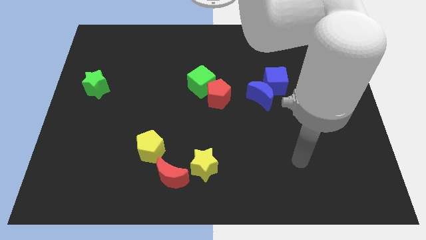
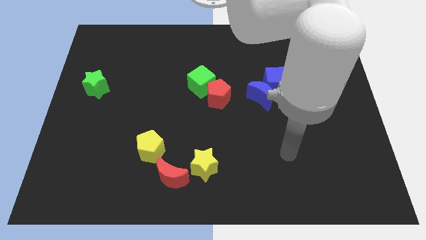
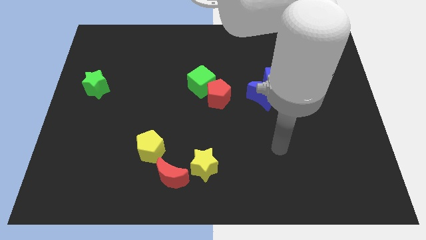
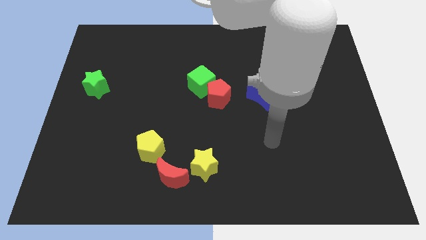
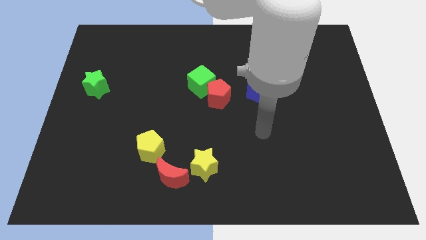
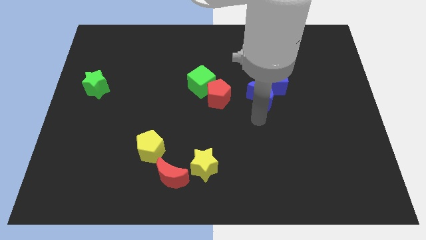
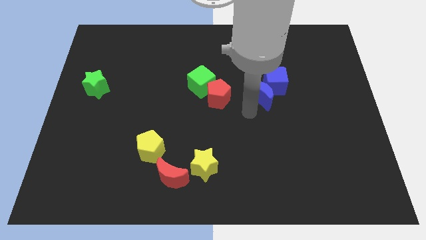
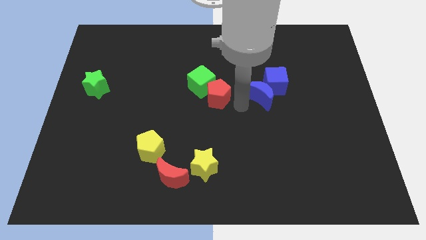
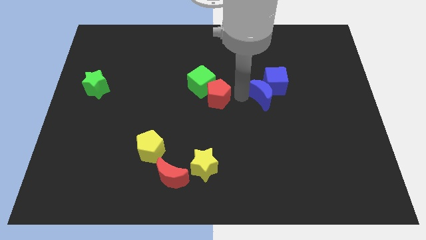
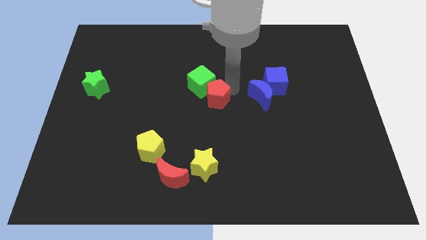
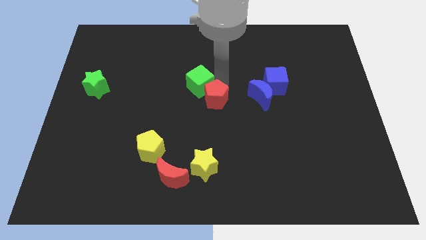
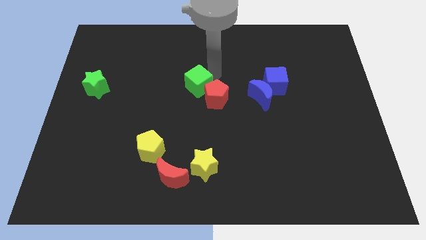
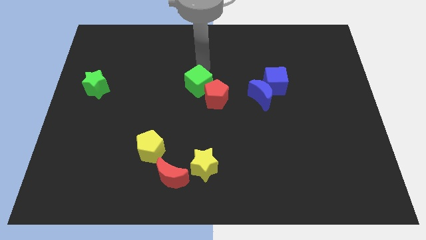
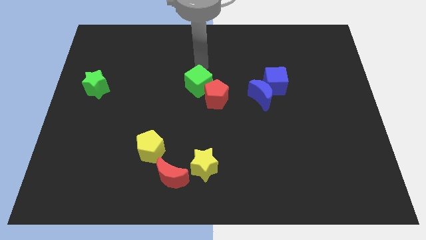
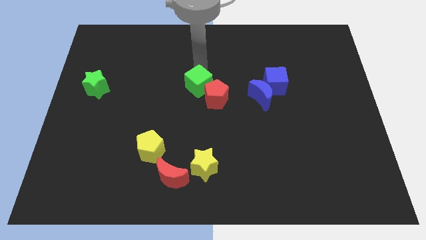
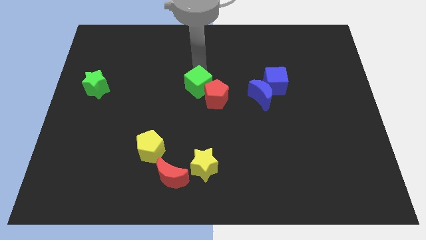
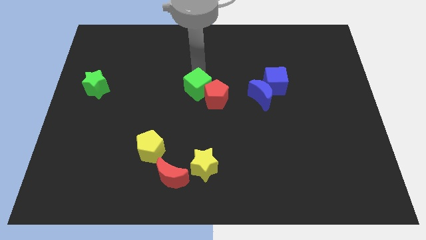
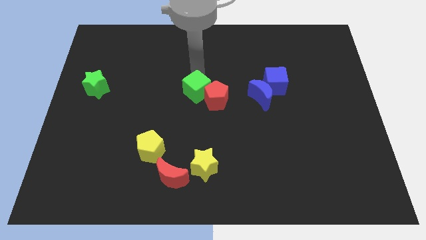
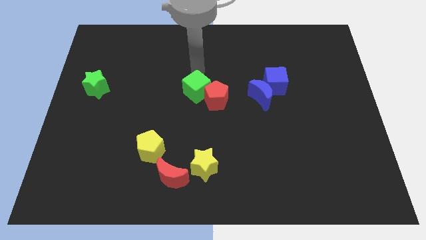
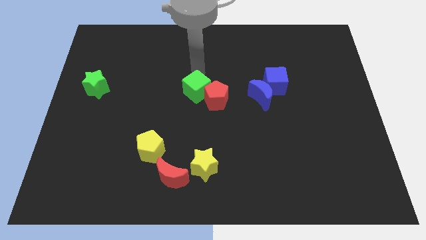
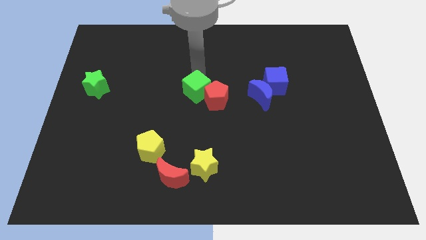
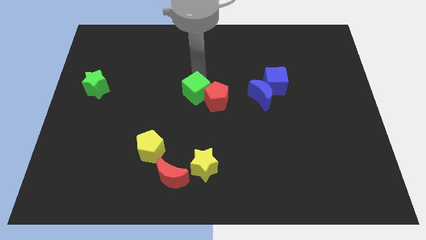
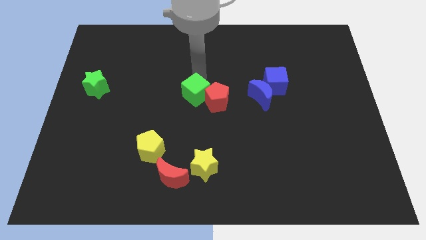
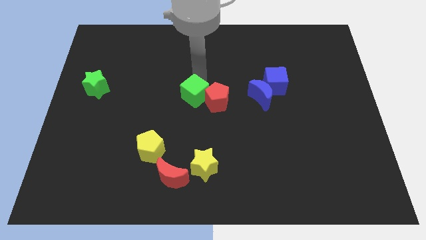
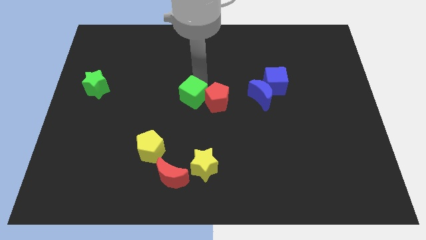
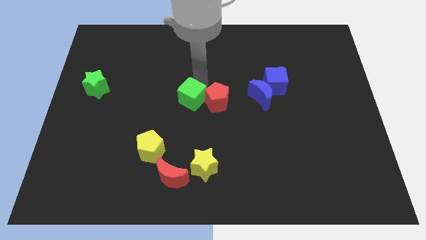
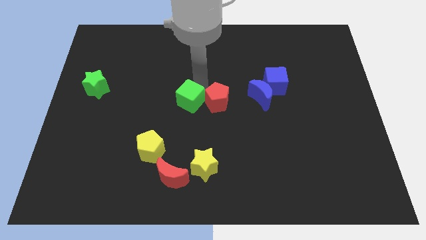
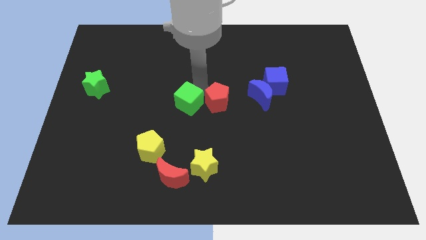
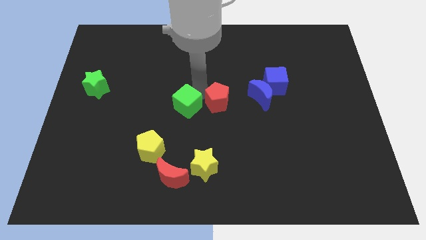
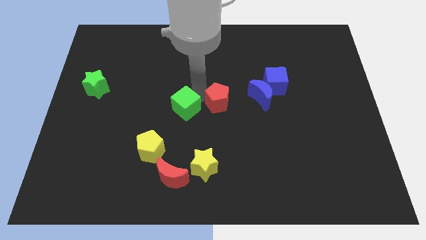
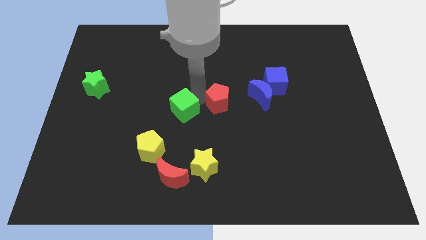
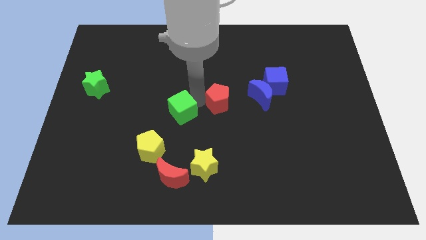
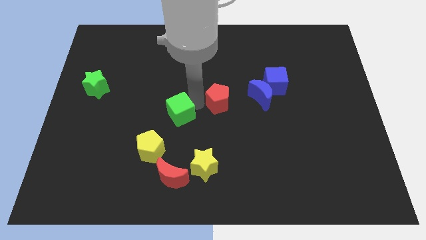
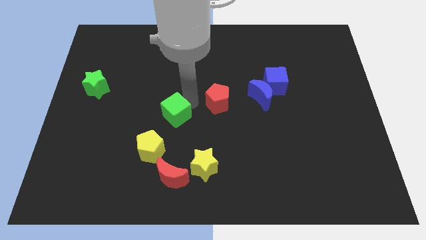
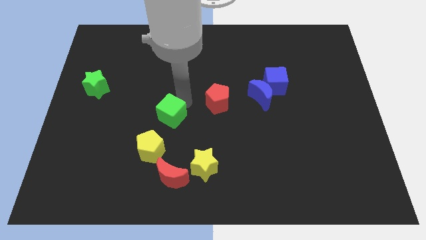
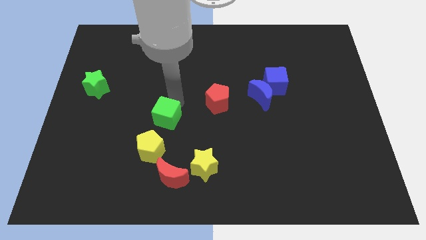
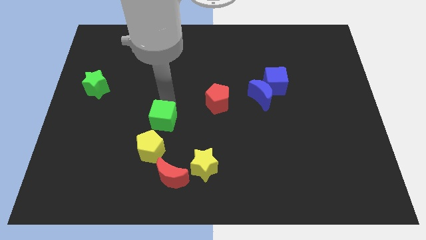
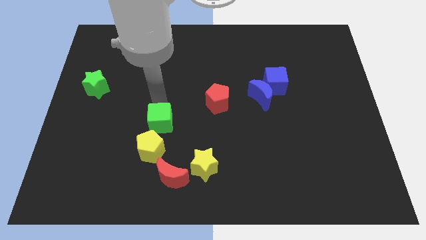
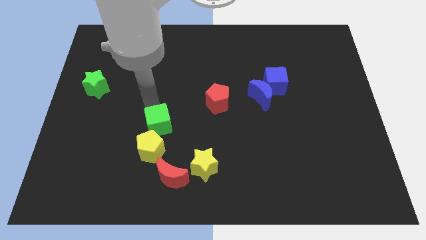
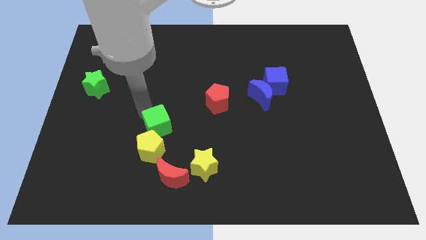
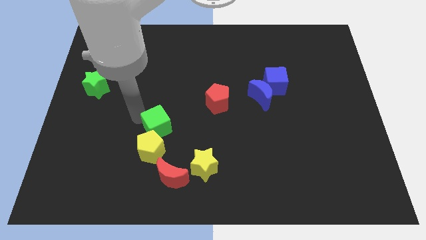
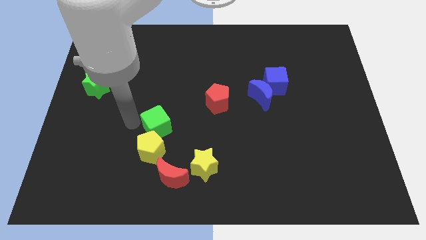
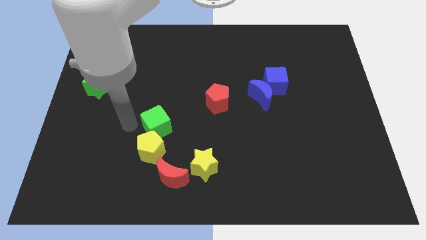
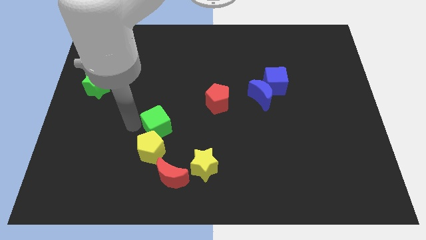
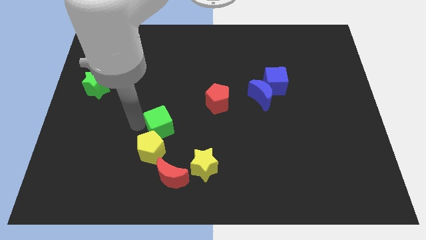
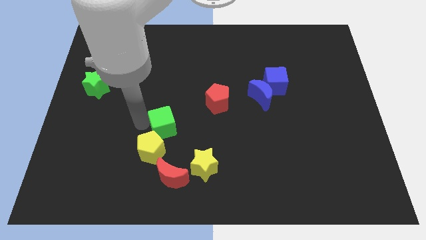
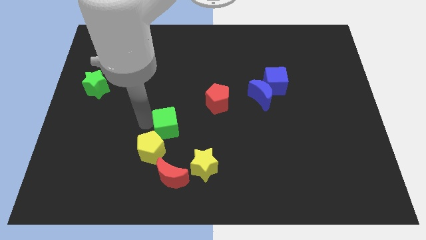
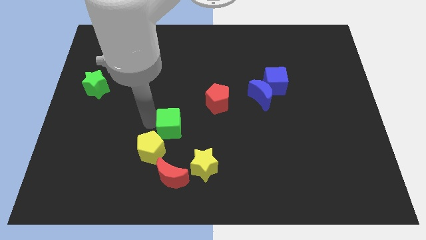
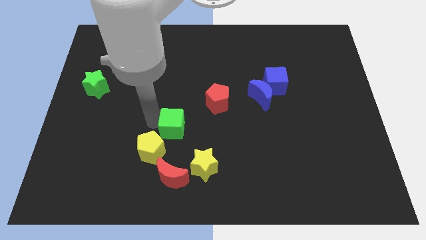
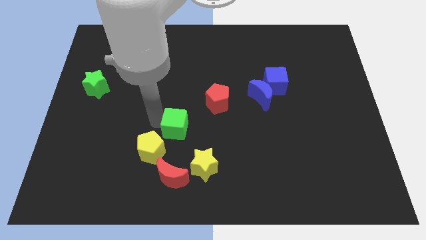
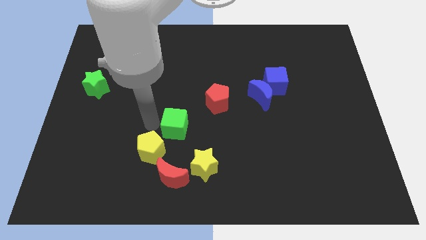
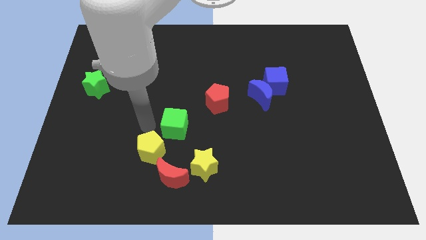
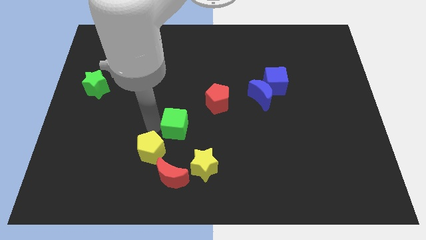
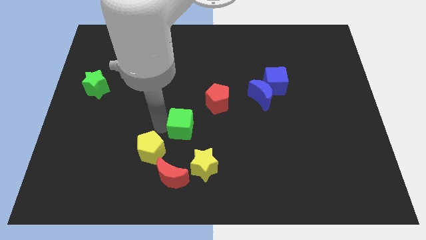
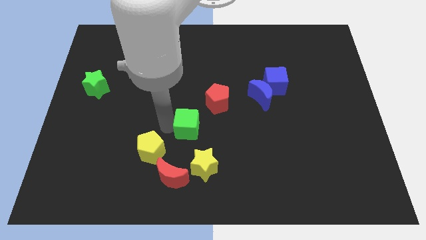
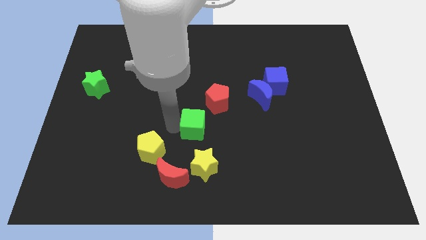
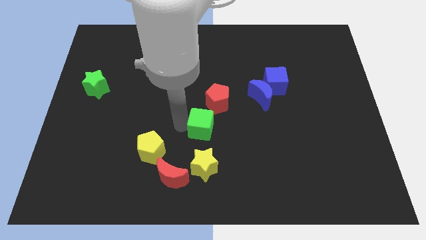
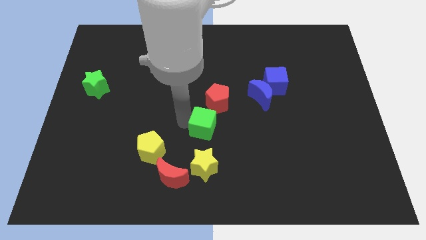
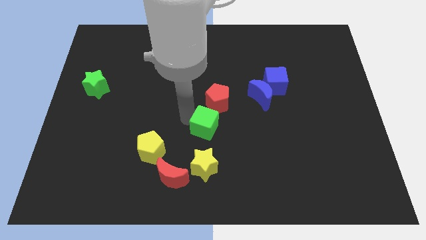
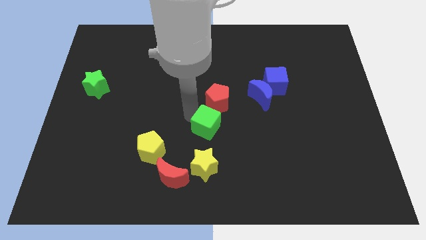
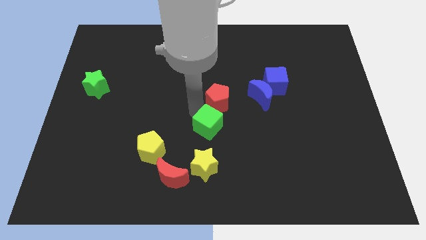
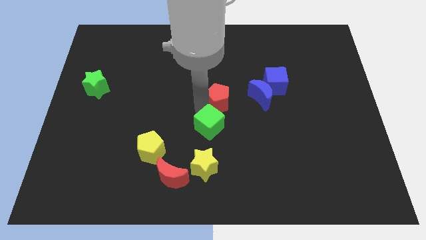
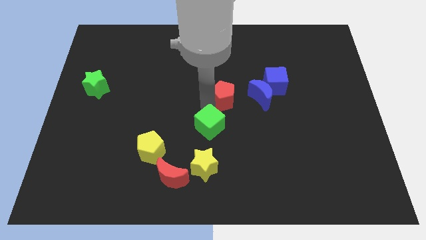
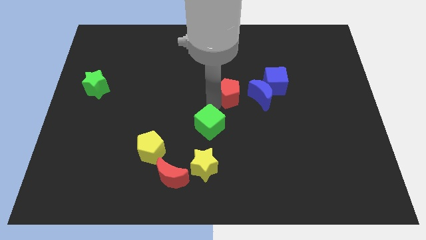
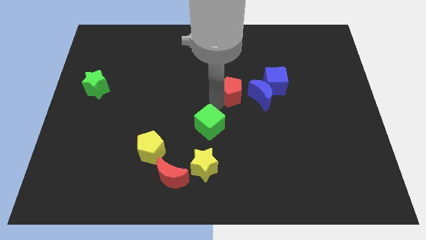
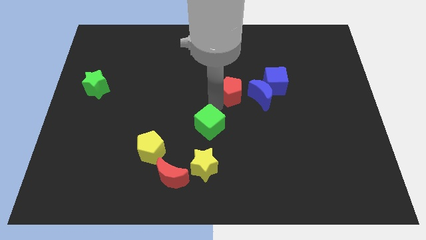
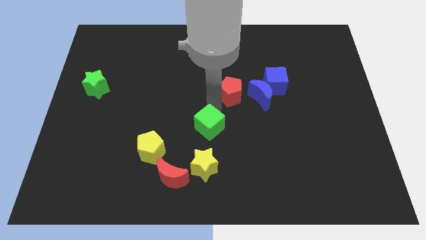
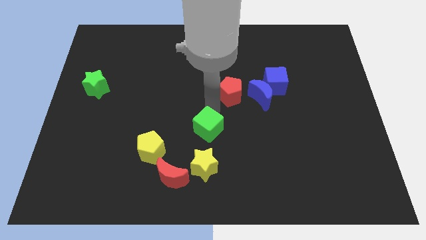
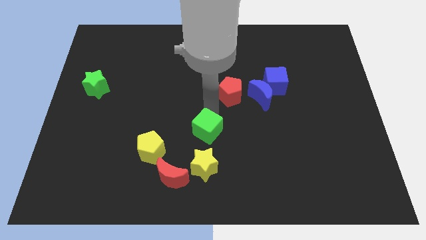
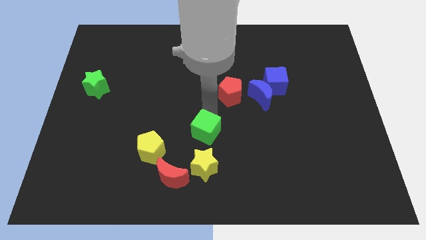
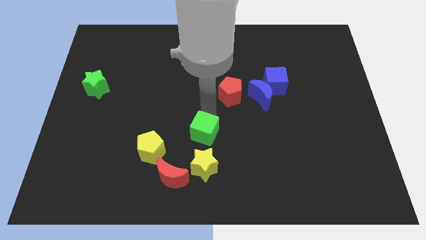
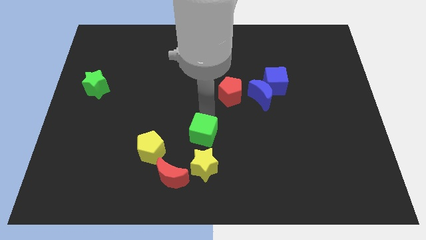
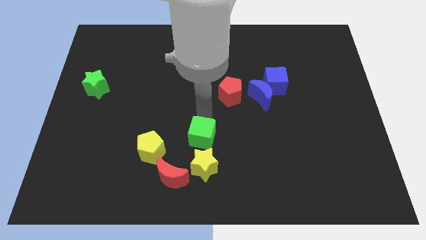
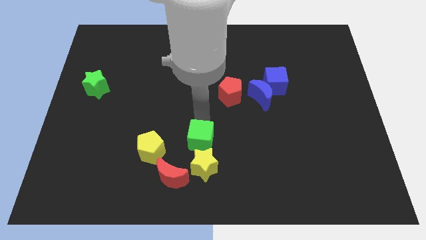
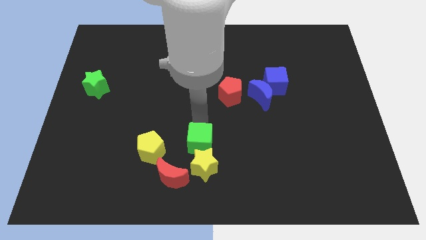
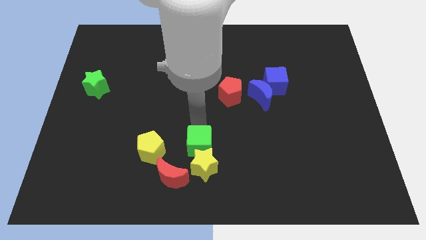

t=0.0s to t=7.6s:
slide the green cube next to the yellow star

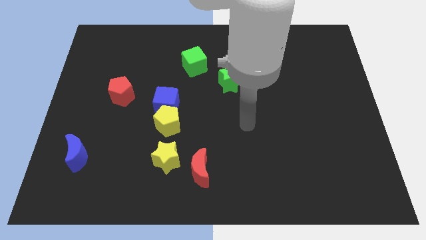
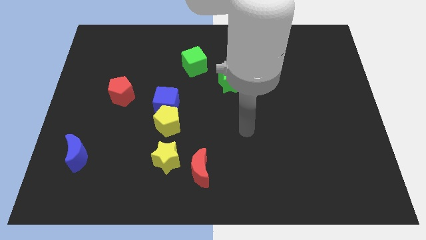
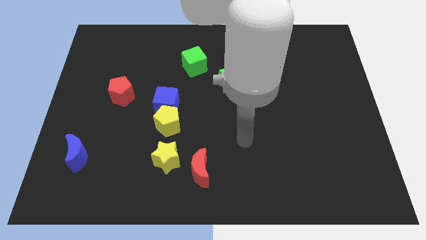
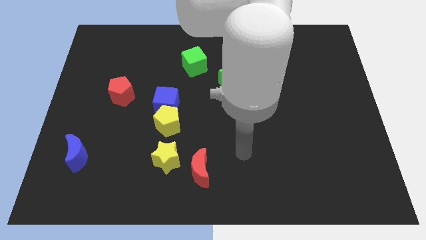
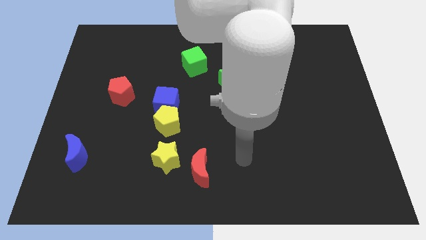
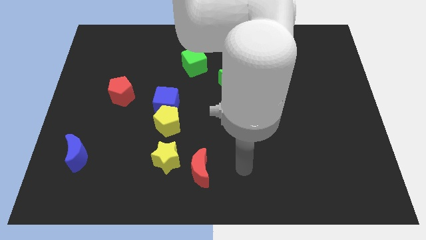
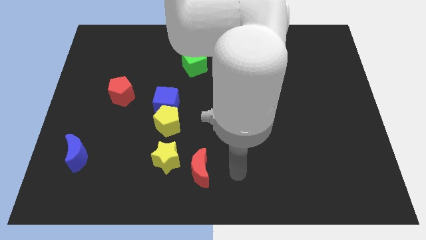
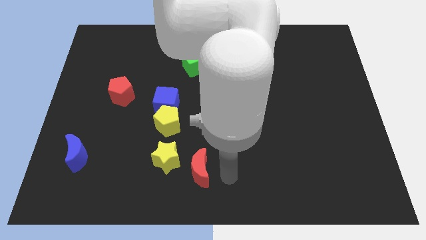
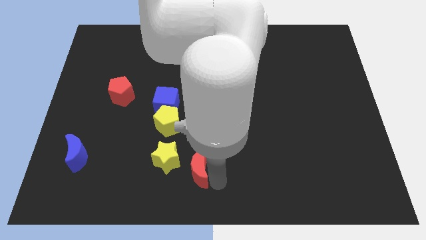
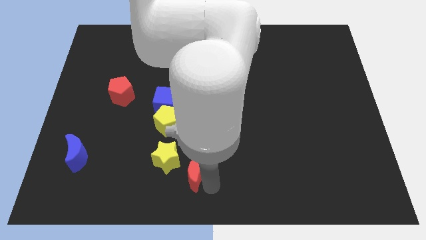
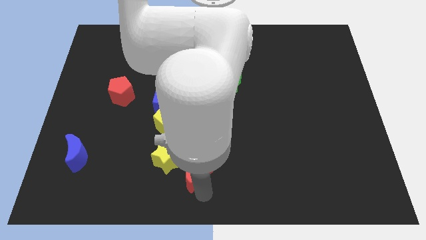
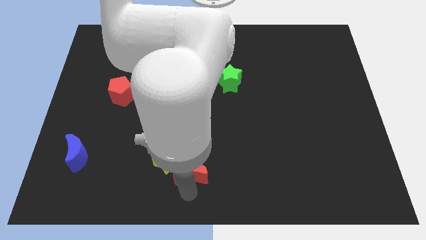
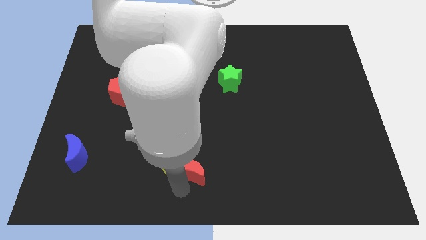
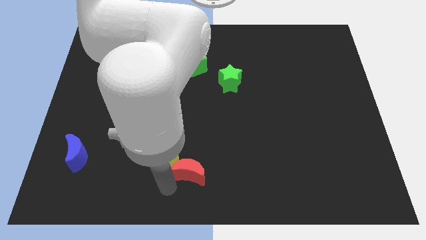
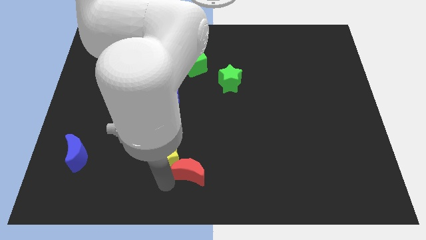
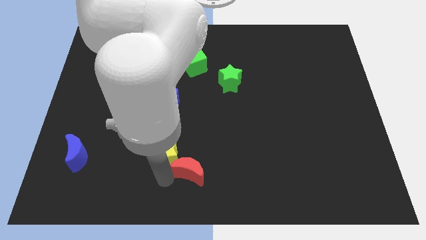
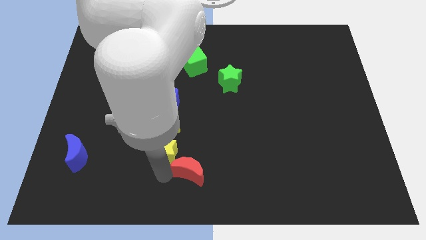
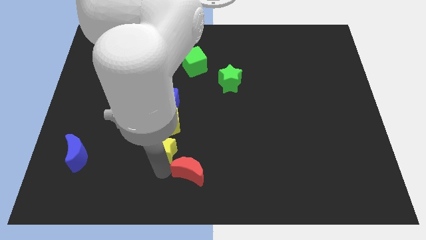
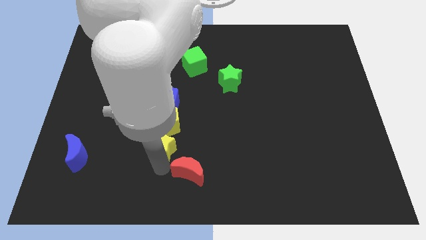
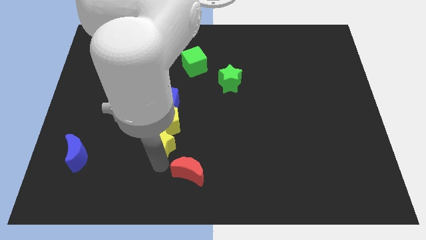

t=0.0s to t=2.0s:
push the yellow star towards the yellow pentagon
